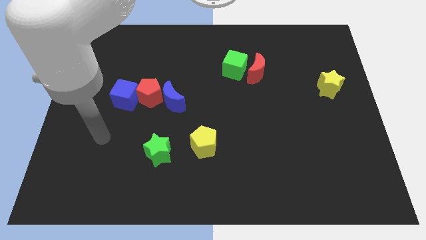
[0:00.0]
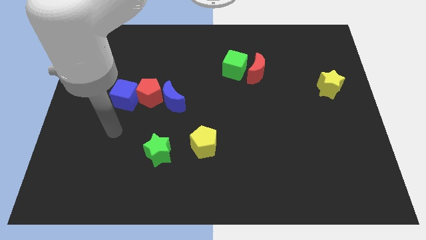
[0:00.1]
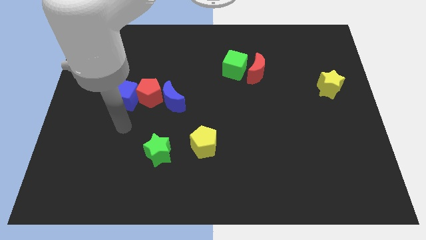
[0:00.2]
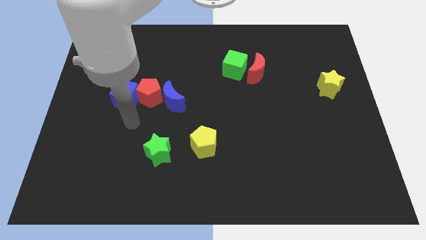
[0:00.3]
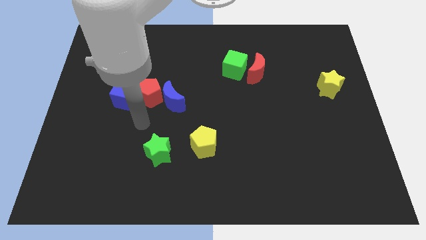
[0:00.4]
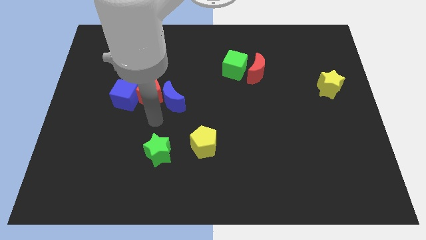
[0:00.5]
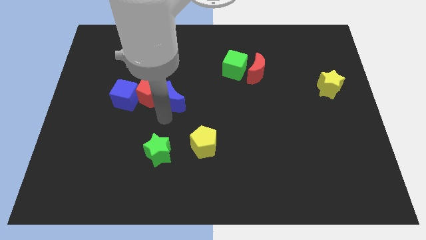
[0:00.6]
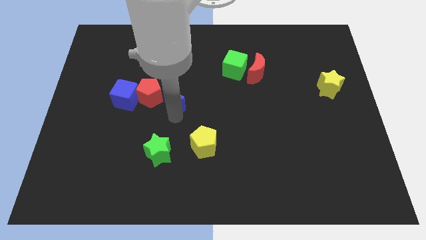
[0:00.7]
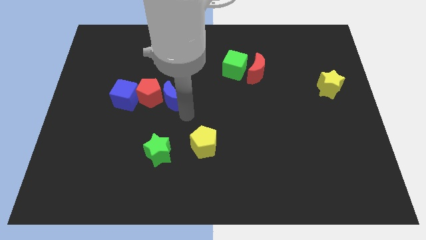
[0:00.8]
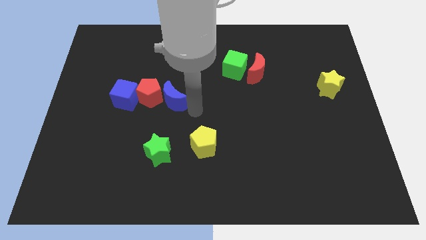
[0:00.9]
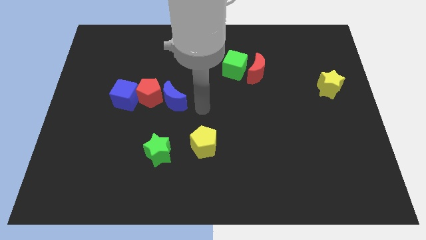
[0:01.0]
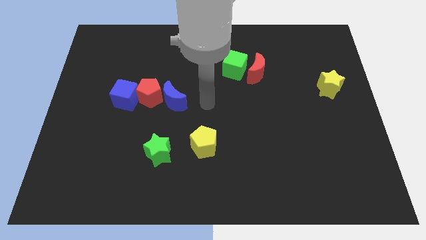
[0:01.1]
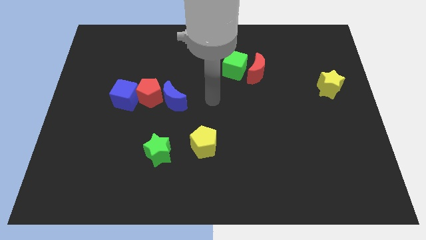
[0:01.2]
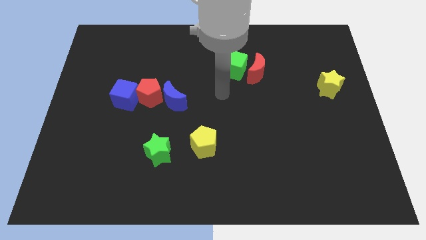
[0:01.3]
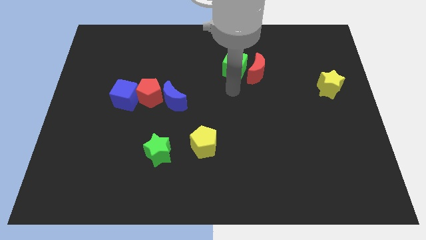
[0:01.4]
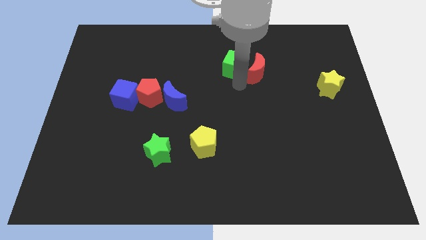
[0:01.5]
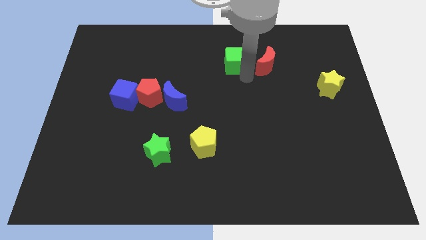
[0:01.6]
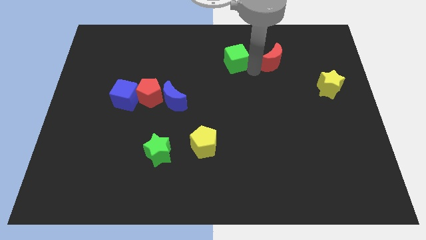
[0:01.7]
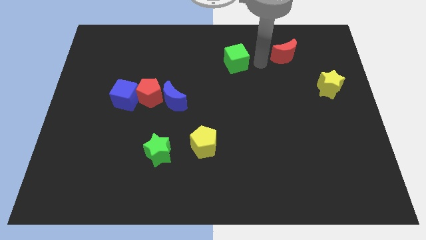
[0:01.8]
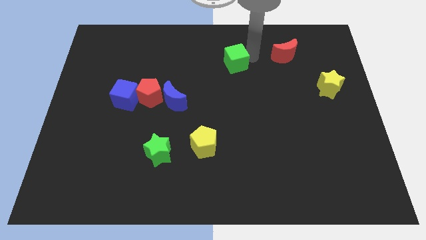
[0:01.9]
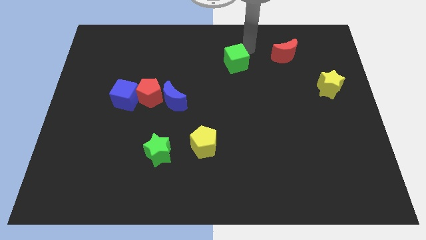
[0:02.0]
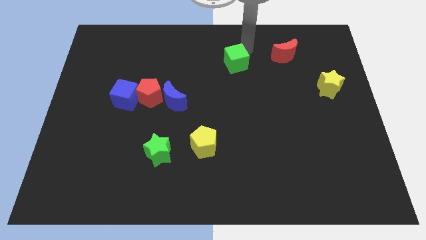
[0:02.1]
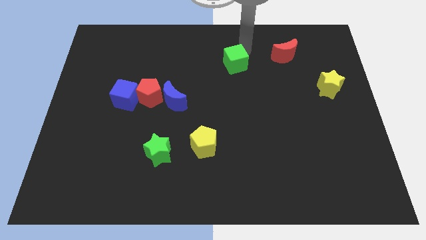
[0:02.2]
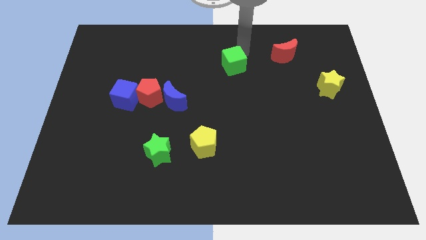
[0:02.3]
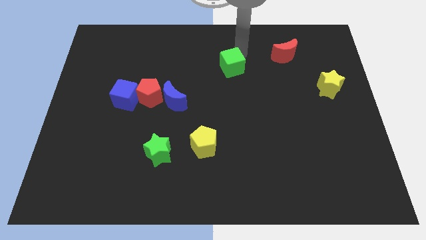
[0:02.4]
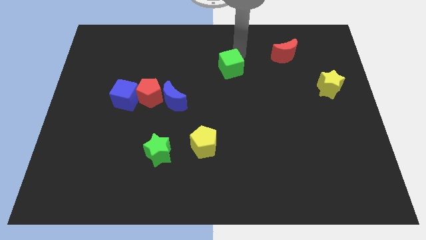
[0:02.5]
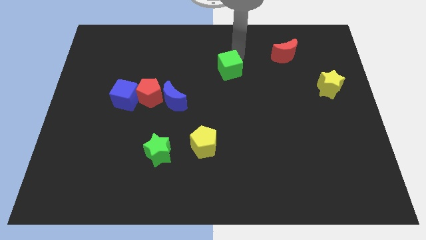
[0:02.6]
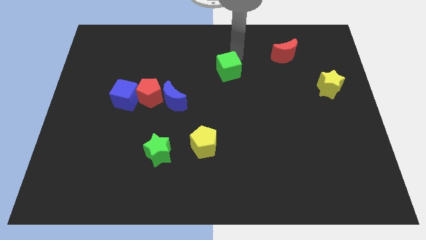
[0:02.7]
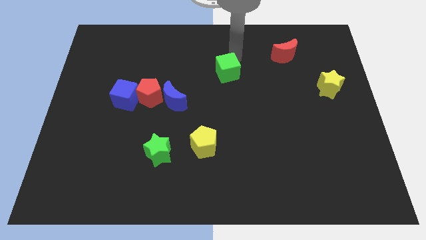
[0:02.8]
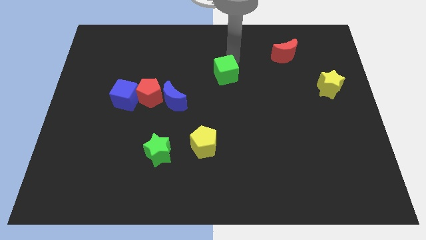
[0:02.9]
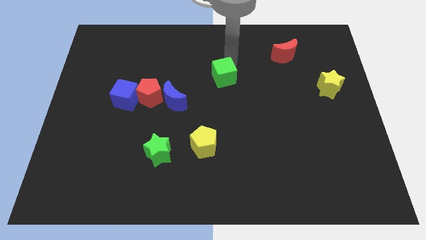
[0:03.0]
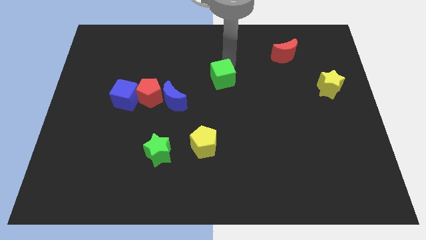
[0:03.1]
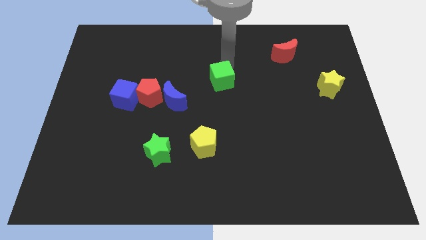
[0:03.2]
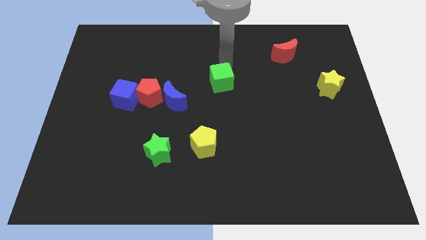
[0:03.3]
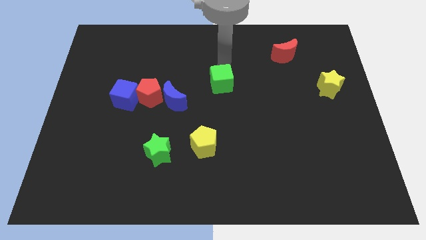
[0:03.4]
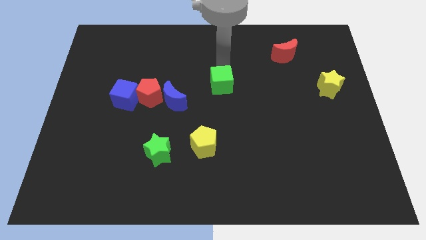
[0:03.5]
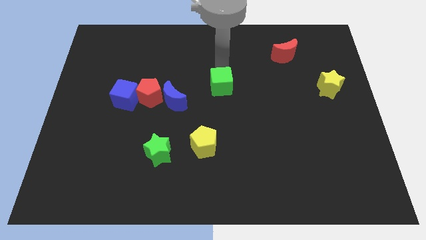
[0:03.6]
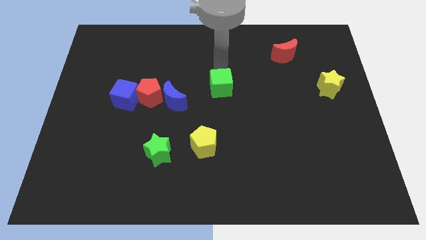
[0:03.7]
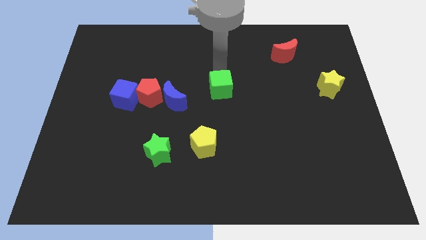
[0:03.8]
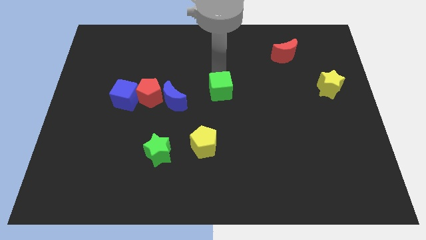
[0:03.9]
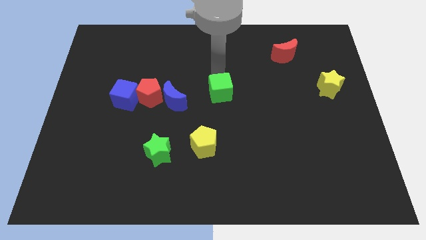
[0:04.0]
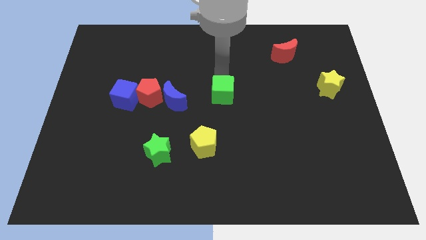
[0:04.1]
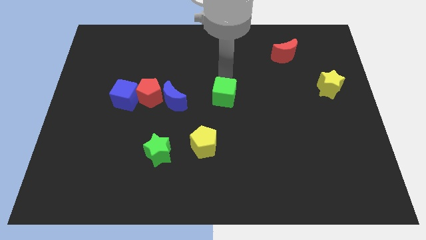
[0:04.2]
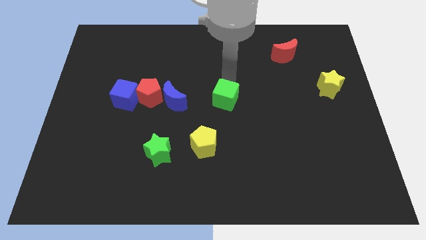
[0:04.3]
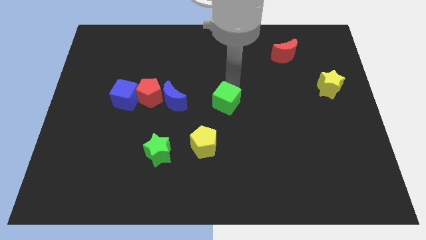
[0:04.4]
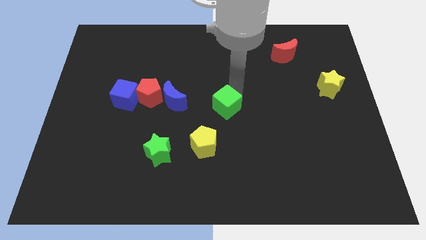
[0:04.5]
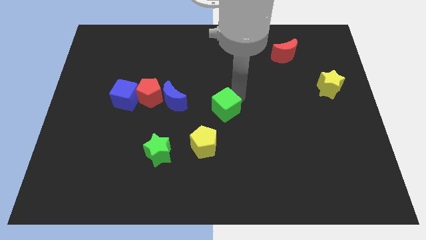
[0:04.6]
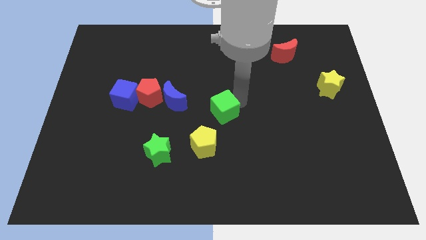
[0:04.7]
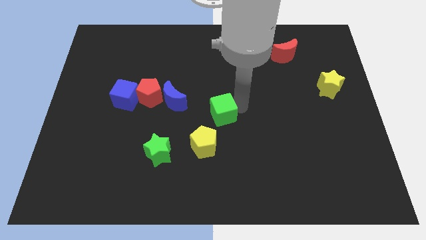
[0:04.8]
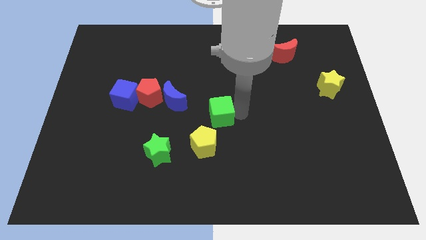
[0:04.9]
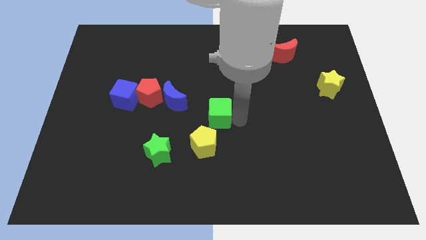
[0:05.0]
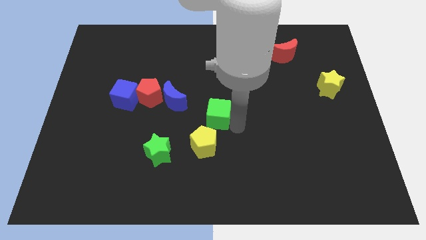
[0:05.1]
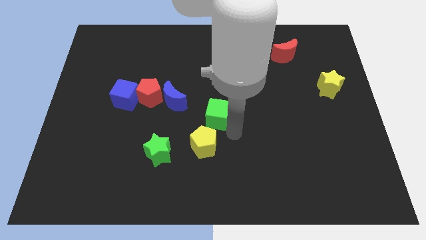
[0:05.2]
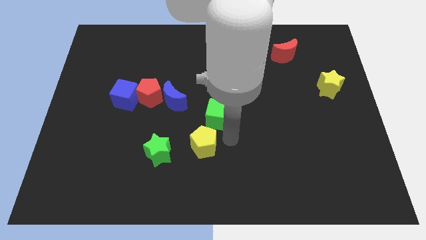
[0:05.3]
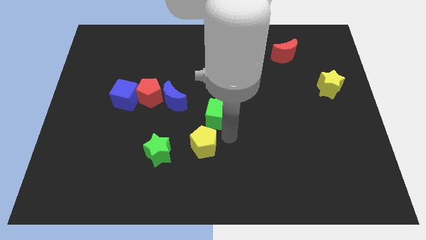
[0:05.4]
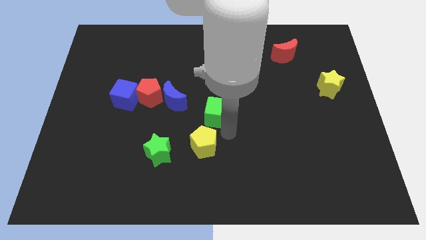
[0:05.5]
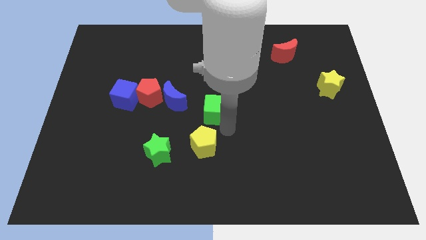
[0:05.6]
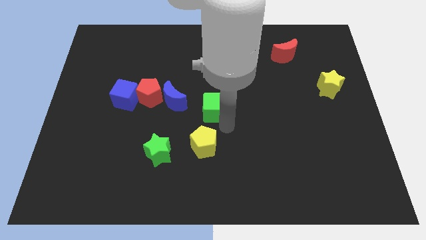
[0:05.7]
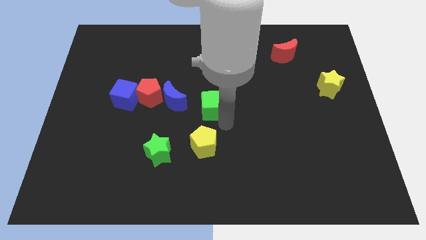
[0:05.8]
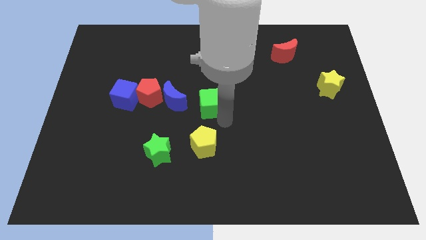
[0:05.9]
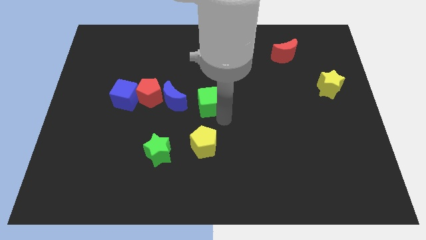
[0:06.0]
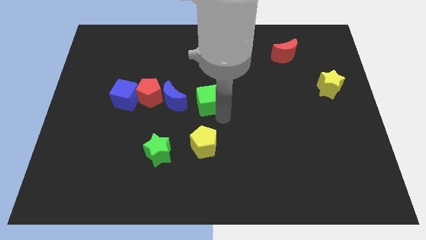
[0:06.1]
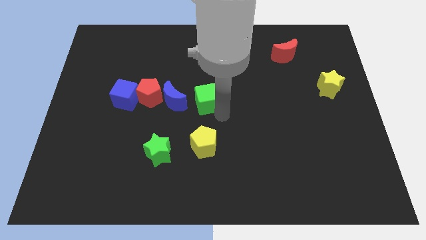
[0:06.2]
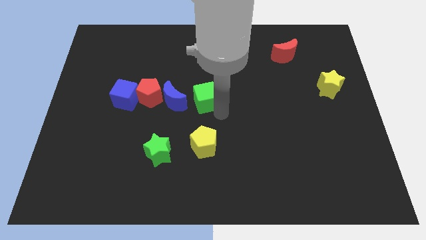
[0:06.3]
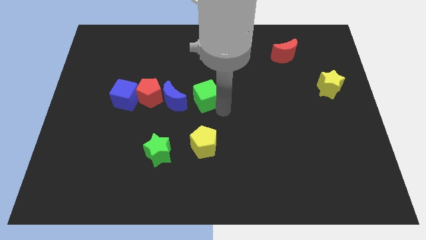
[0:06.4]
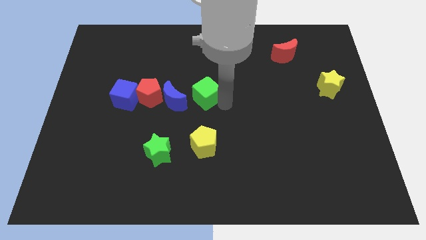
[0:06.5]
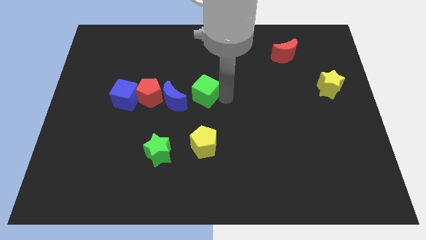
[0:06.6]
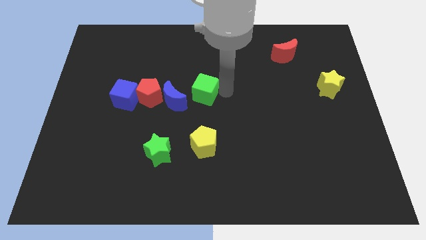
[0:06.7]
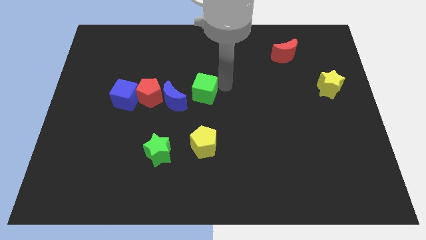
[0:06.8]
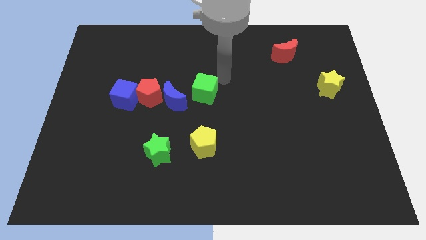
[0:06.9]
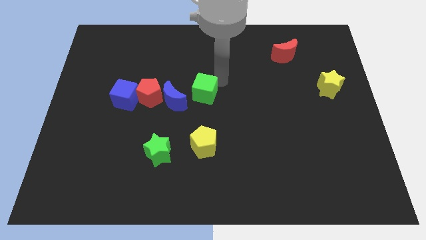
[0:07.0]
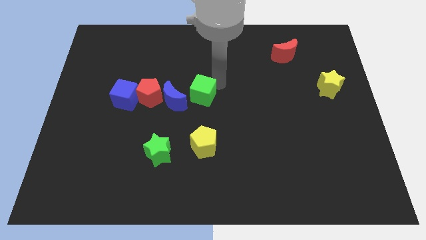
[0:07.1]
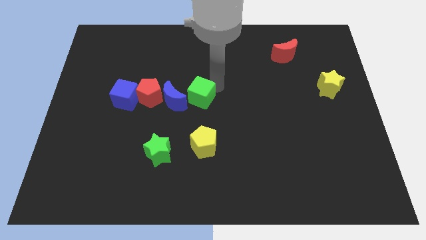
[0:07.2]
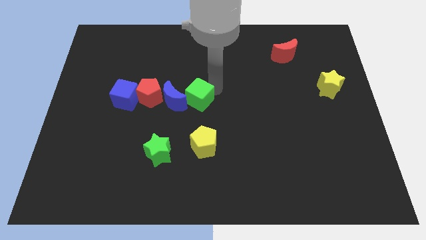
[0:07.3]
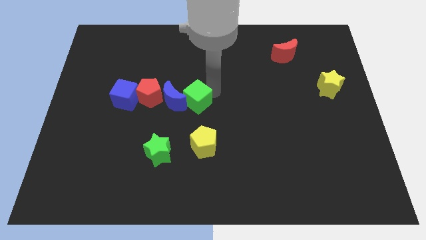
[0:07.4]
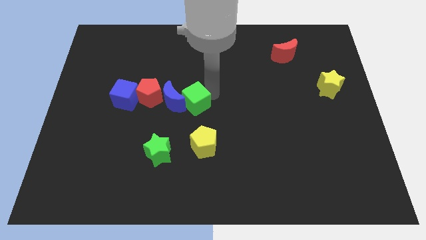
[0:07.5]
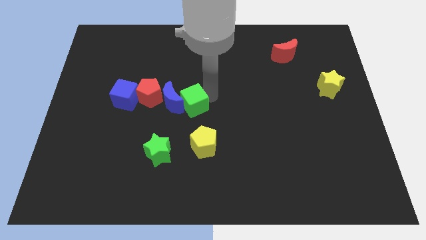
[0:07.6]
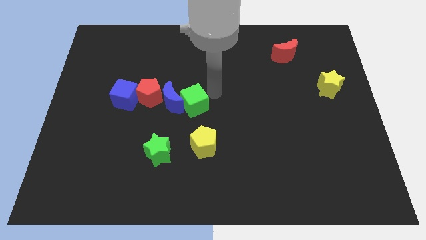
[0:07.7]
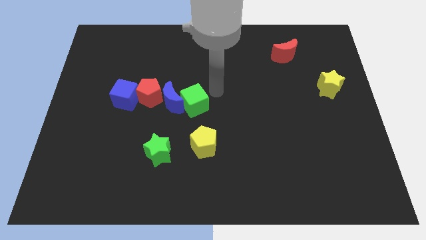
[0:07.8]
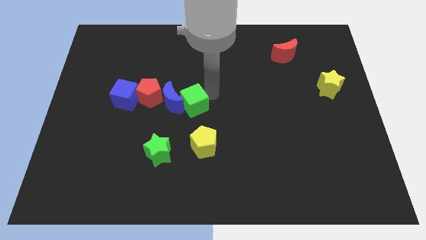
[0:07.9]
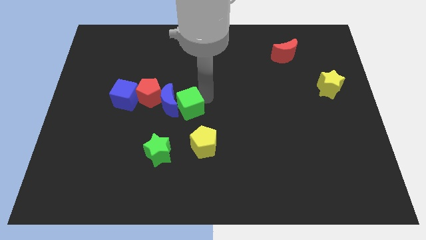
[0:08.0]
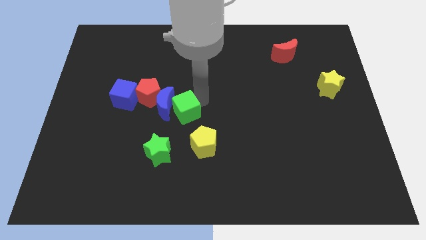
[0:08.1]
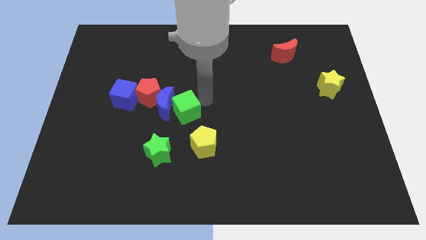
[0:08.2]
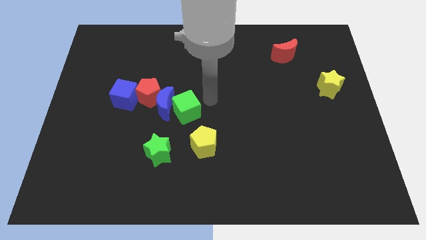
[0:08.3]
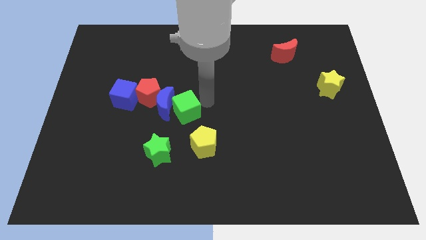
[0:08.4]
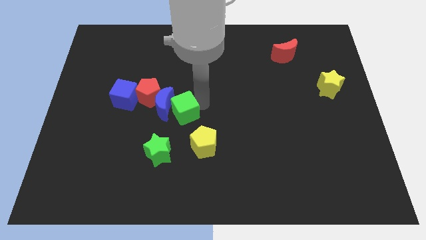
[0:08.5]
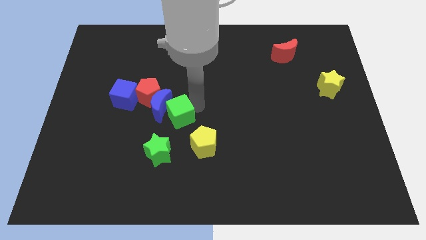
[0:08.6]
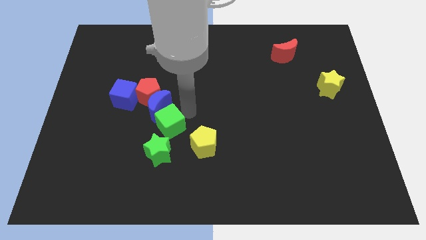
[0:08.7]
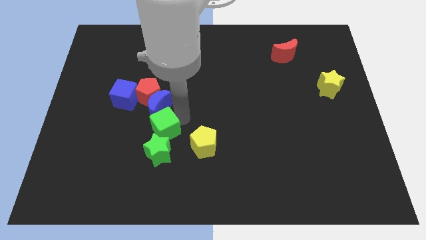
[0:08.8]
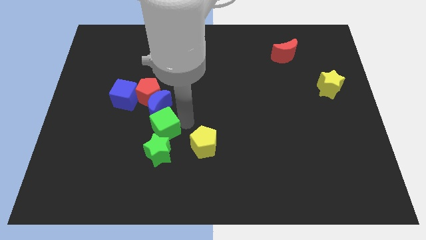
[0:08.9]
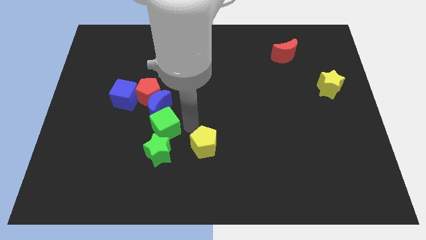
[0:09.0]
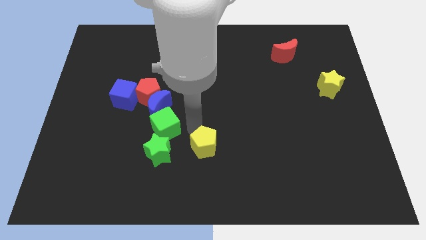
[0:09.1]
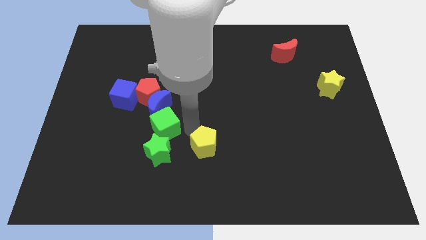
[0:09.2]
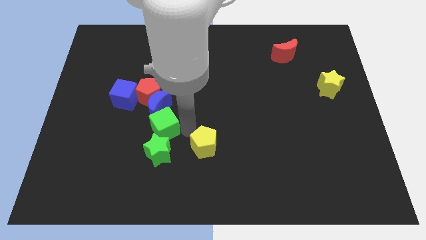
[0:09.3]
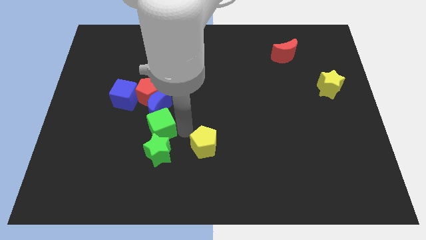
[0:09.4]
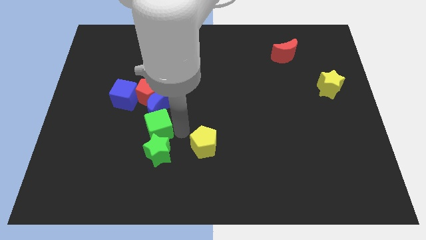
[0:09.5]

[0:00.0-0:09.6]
slide the green cube to the bottom left of the blue moon
